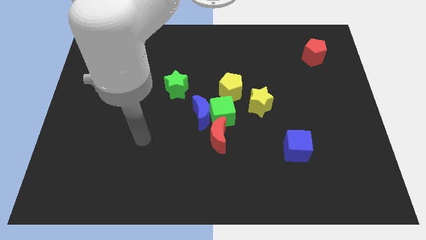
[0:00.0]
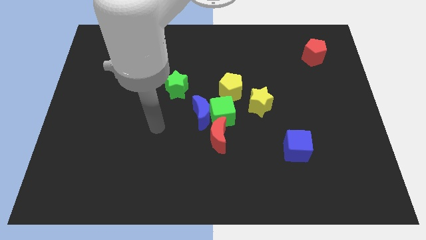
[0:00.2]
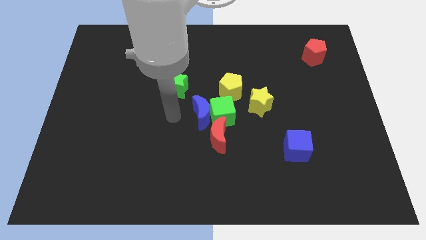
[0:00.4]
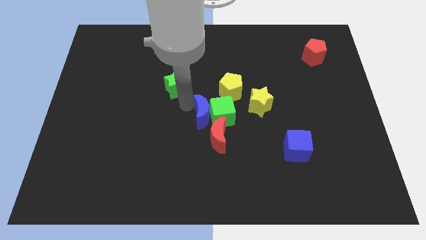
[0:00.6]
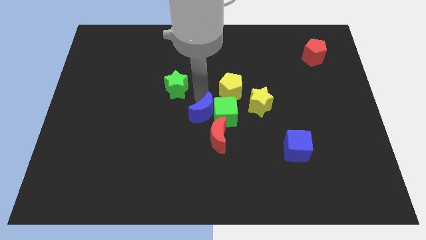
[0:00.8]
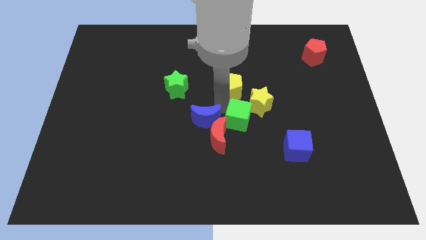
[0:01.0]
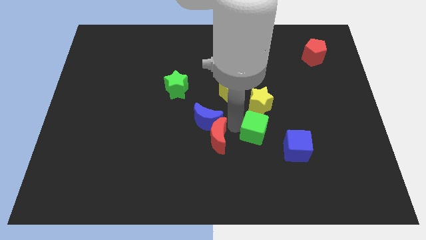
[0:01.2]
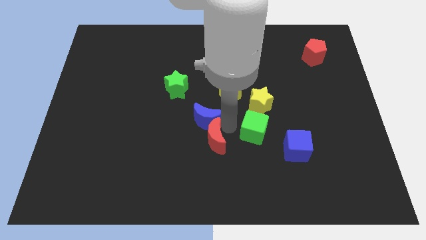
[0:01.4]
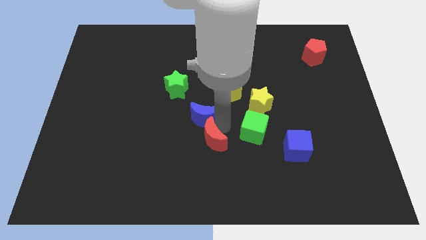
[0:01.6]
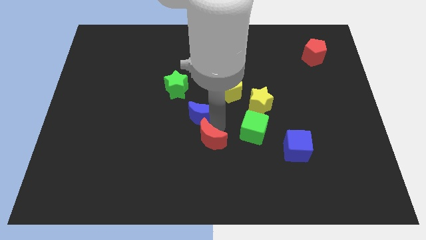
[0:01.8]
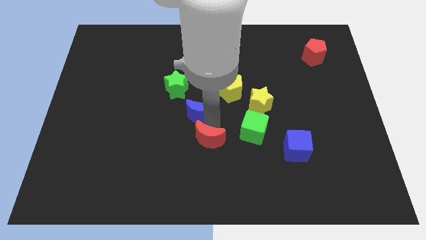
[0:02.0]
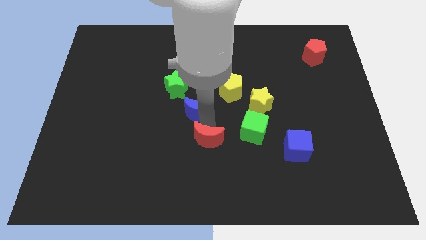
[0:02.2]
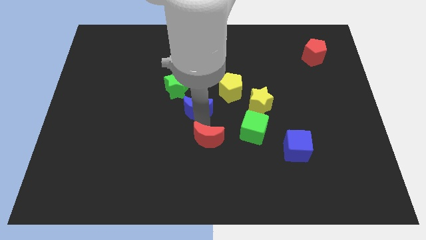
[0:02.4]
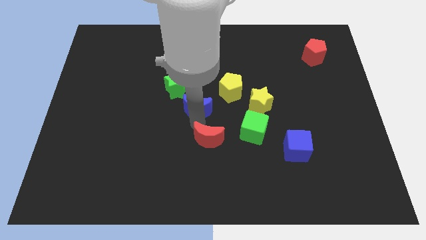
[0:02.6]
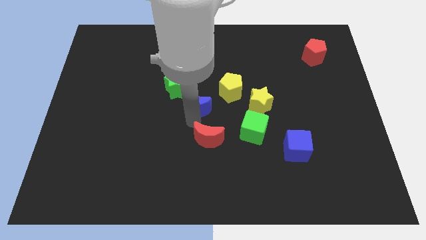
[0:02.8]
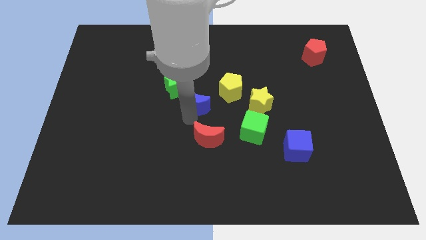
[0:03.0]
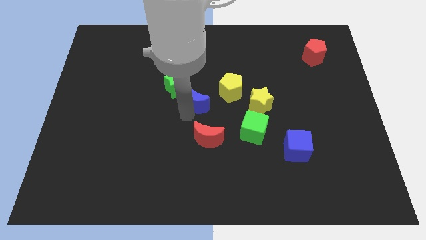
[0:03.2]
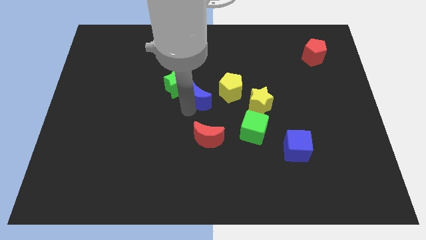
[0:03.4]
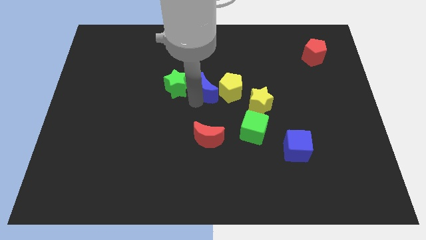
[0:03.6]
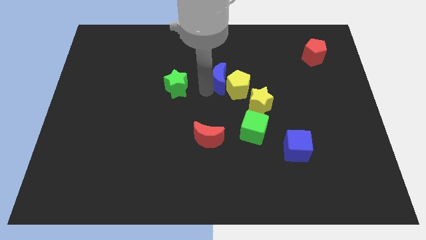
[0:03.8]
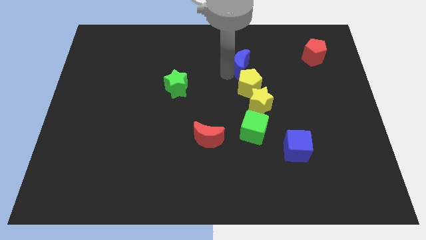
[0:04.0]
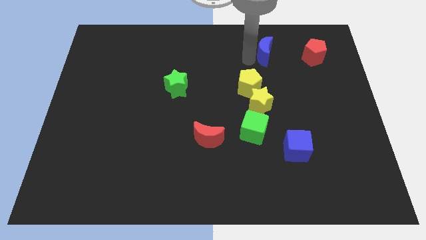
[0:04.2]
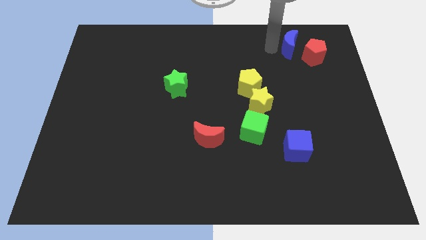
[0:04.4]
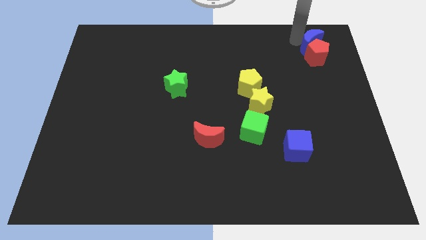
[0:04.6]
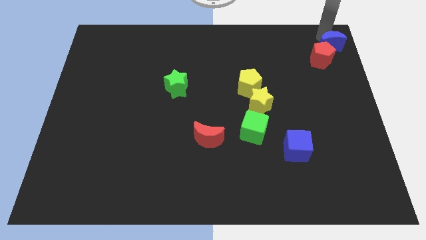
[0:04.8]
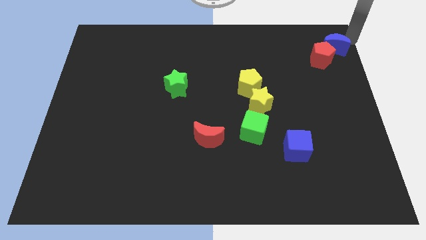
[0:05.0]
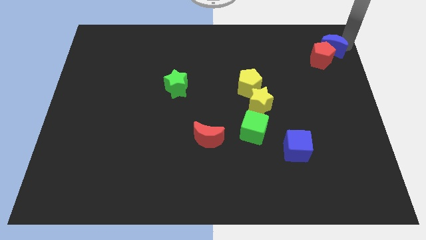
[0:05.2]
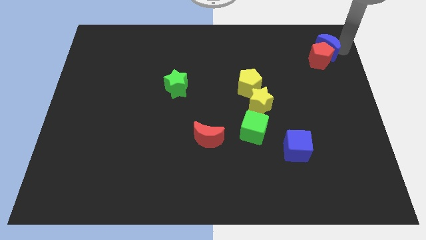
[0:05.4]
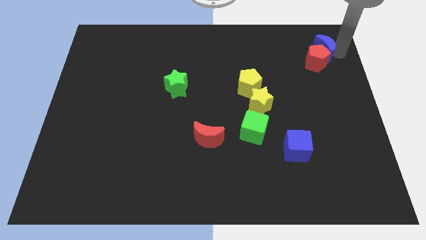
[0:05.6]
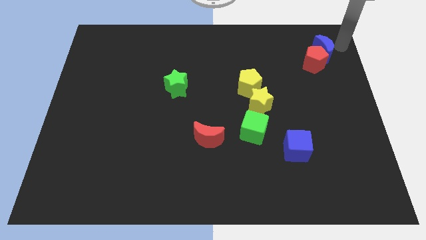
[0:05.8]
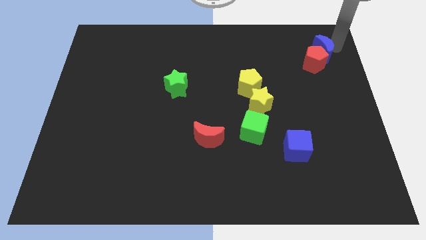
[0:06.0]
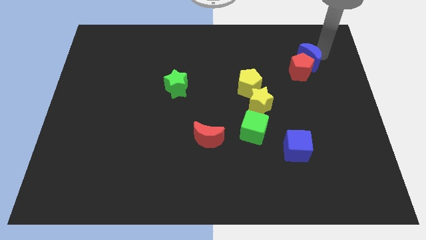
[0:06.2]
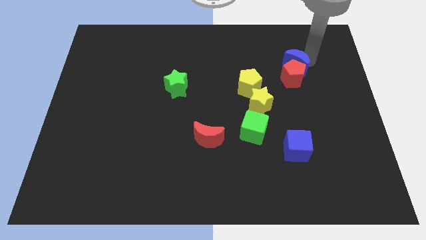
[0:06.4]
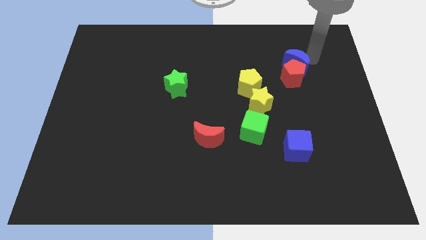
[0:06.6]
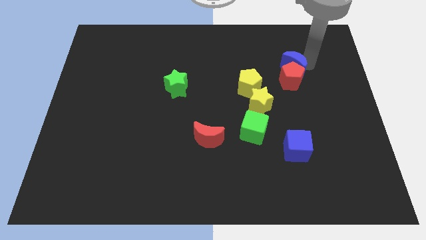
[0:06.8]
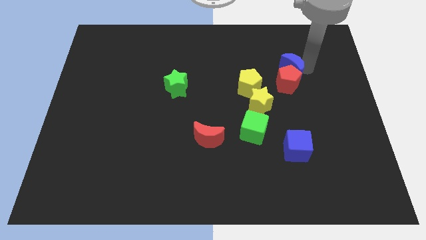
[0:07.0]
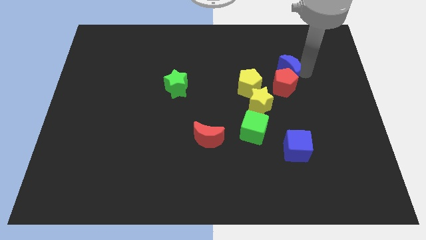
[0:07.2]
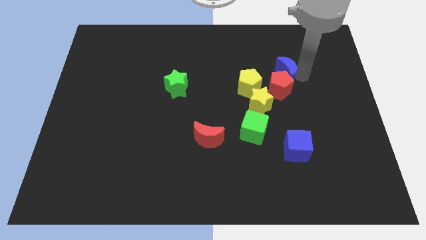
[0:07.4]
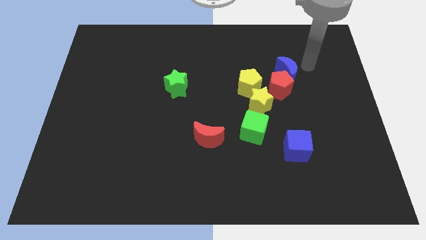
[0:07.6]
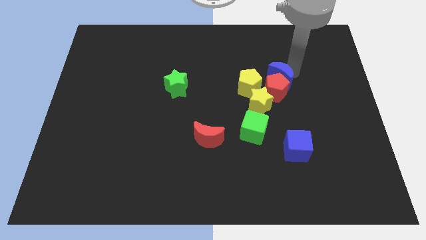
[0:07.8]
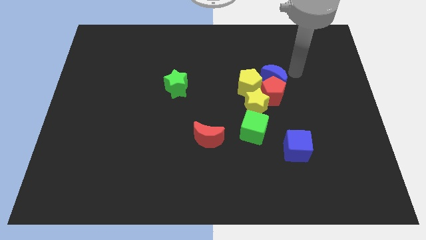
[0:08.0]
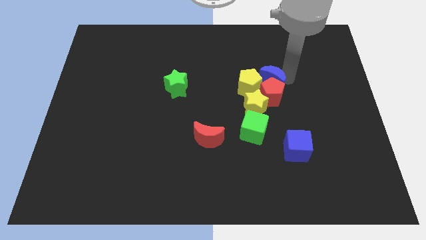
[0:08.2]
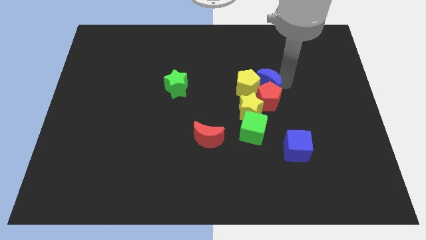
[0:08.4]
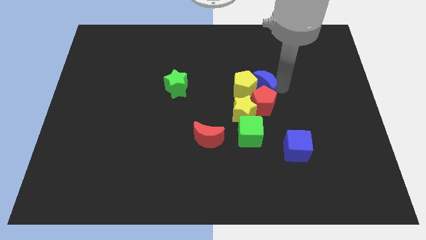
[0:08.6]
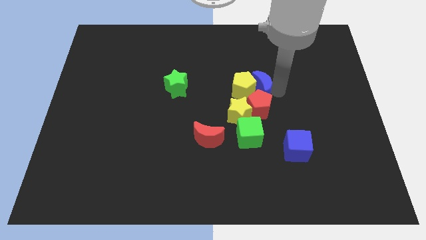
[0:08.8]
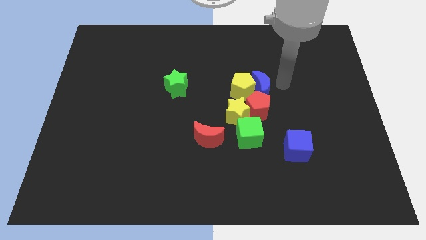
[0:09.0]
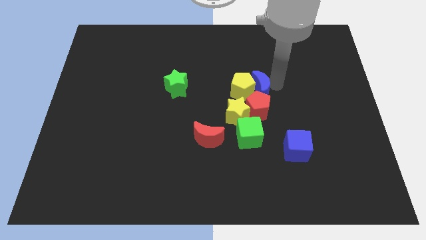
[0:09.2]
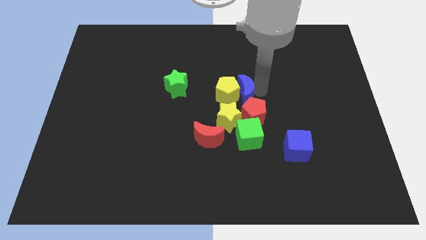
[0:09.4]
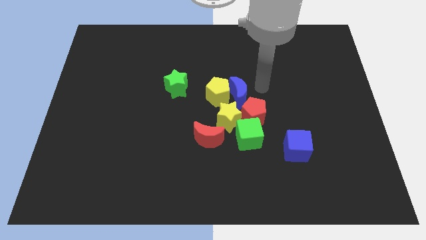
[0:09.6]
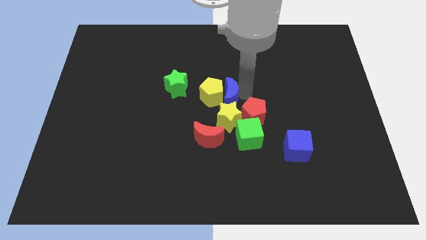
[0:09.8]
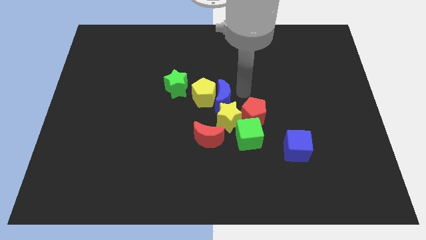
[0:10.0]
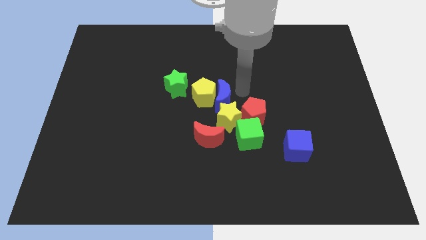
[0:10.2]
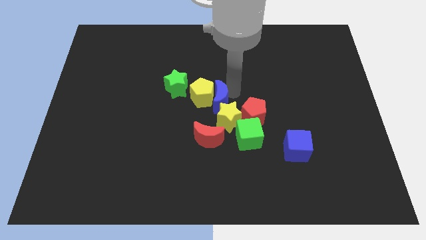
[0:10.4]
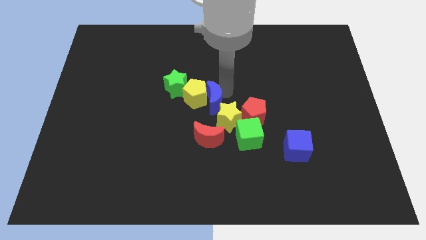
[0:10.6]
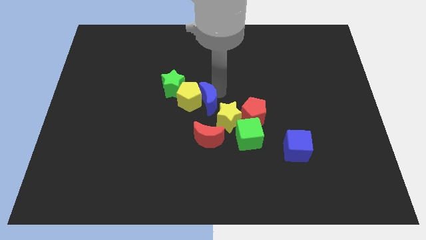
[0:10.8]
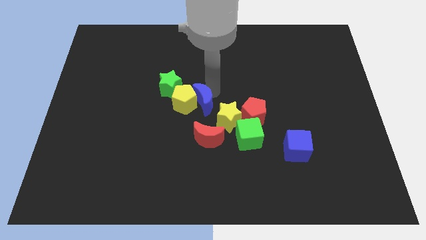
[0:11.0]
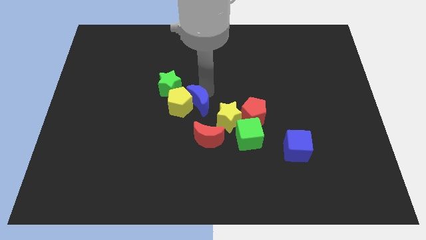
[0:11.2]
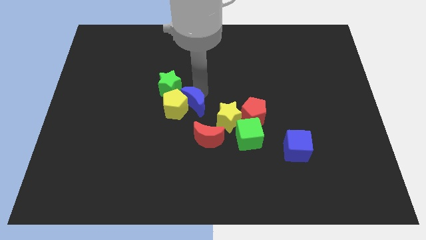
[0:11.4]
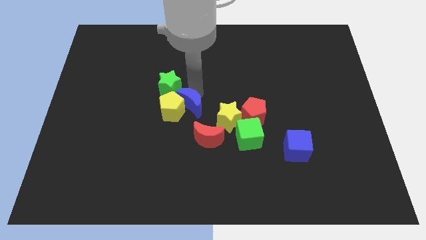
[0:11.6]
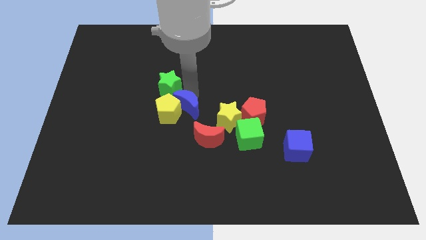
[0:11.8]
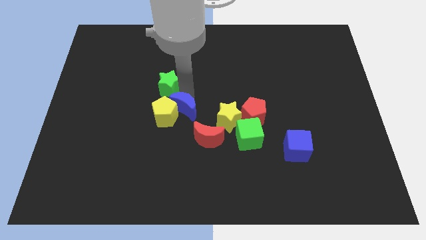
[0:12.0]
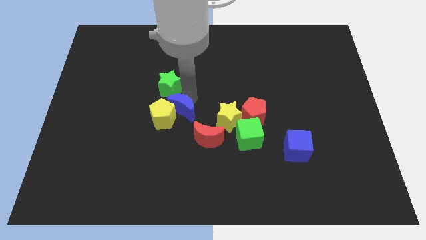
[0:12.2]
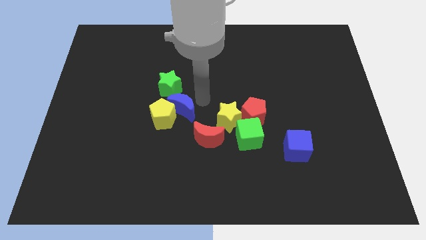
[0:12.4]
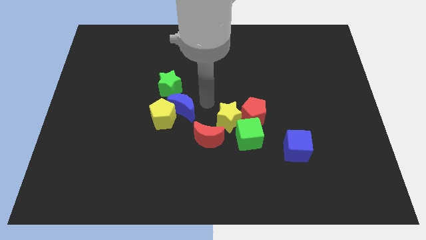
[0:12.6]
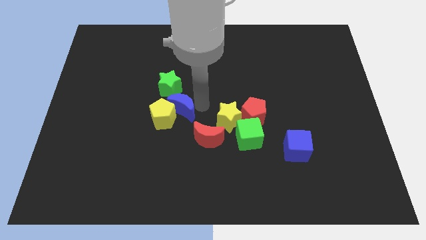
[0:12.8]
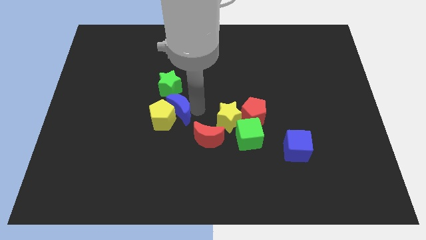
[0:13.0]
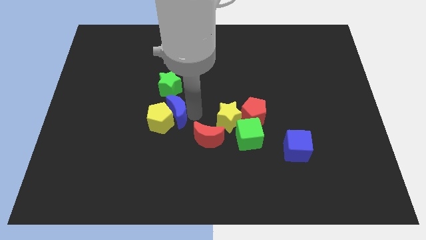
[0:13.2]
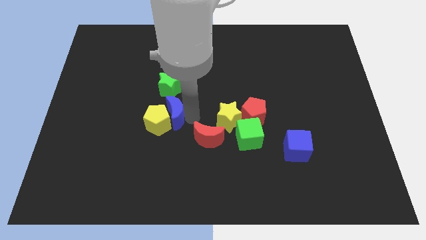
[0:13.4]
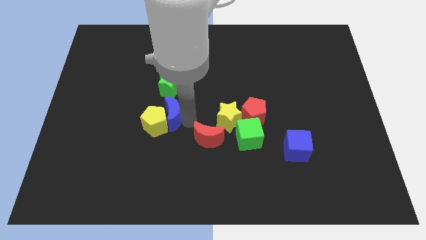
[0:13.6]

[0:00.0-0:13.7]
slide the blue moon a little to the left

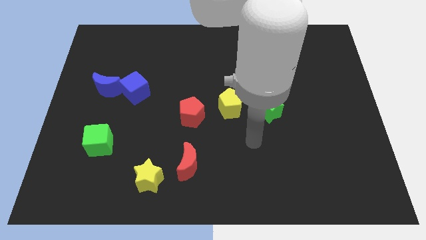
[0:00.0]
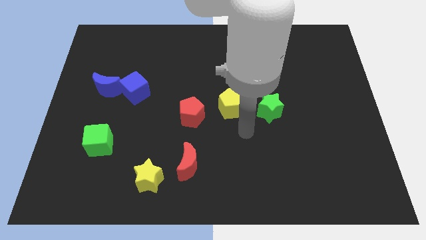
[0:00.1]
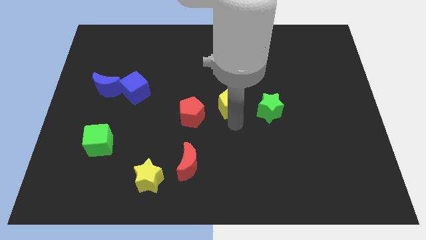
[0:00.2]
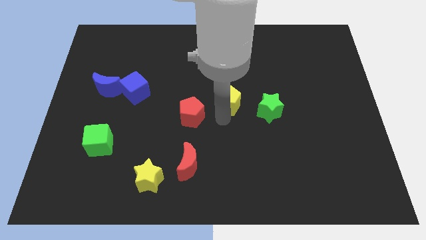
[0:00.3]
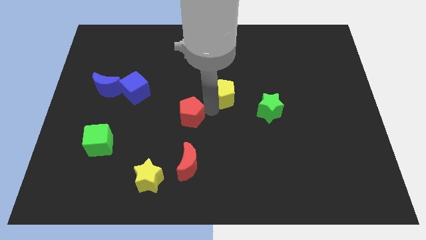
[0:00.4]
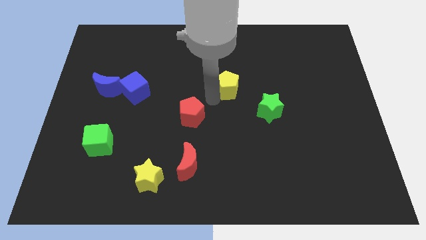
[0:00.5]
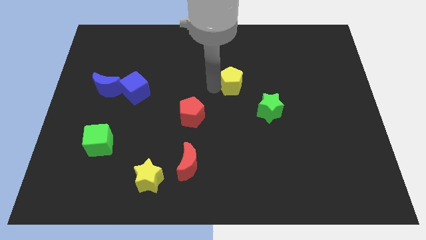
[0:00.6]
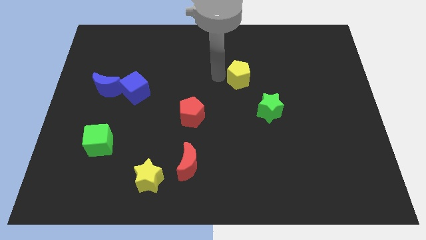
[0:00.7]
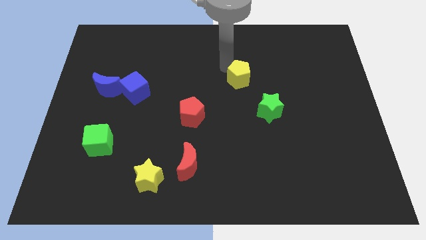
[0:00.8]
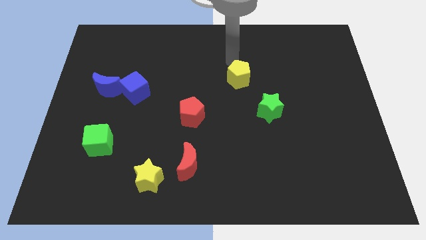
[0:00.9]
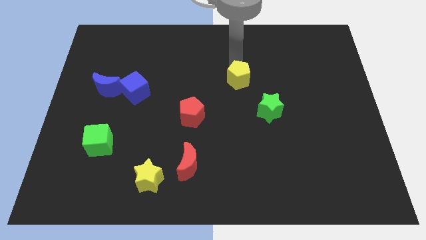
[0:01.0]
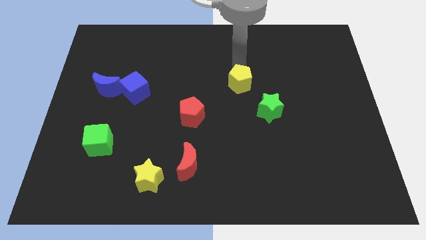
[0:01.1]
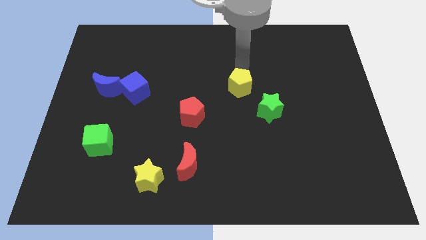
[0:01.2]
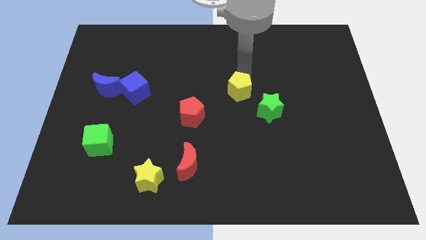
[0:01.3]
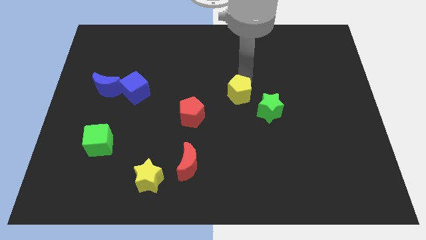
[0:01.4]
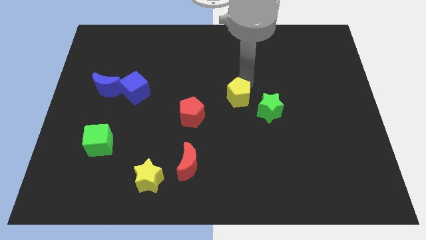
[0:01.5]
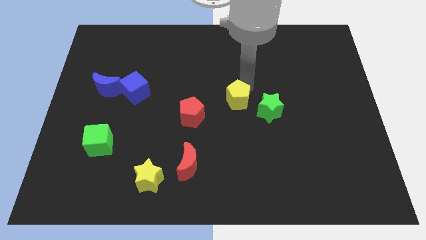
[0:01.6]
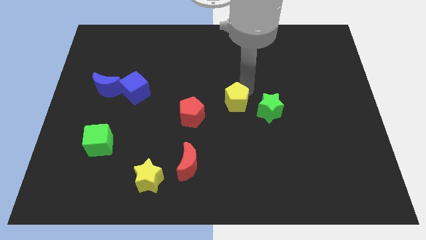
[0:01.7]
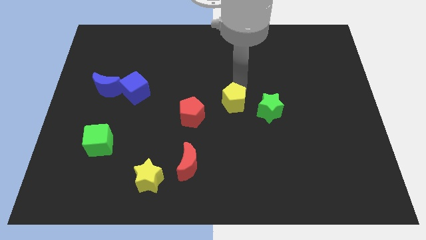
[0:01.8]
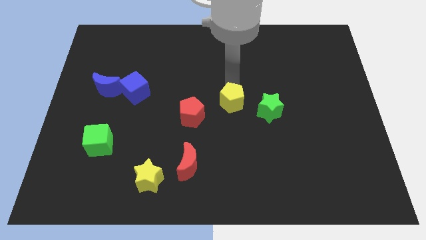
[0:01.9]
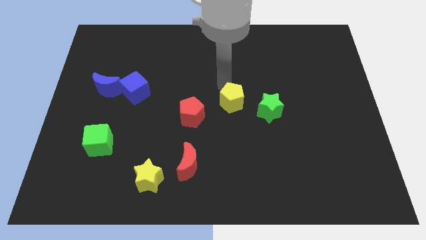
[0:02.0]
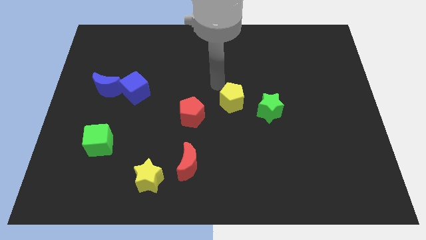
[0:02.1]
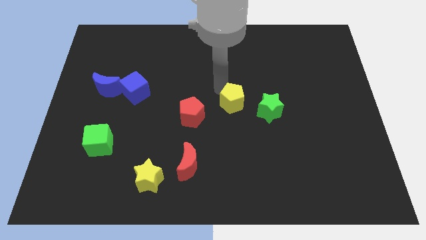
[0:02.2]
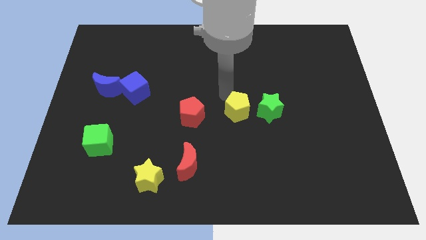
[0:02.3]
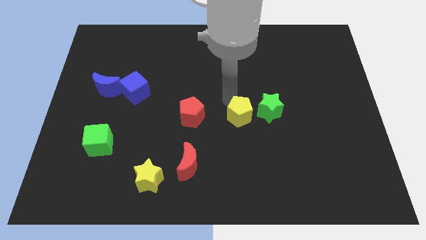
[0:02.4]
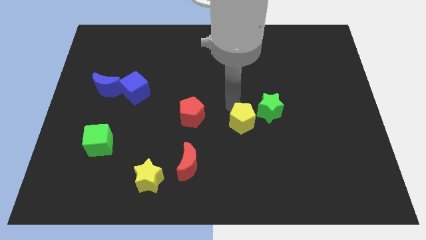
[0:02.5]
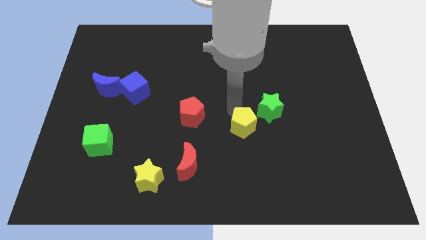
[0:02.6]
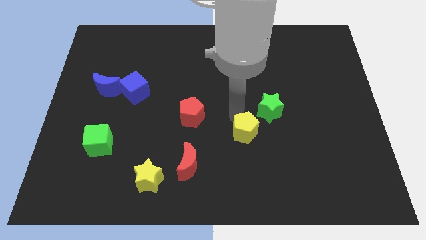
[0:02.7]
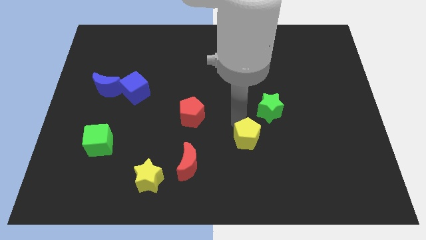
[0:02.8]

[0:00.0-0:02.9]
slightly slide the yellow pentagon diagonally down and to the right
